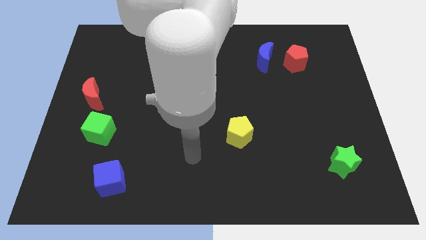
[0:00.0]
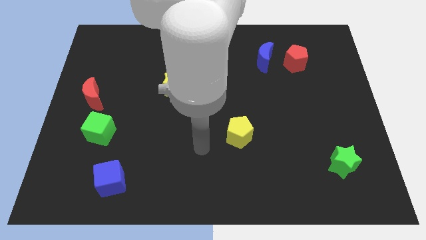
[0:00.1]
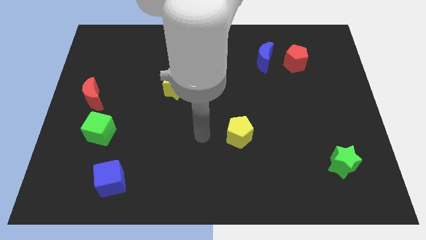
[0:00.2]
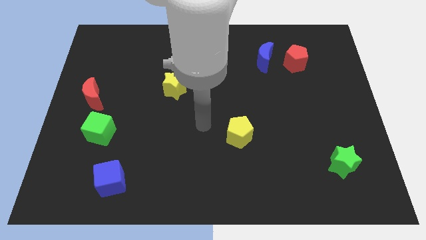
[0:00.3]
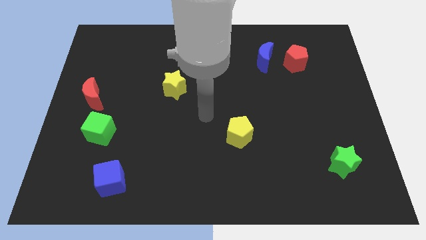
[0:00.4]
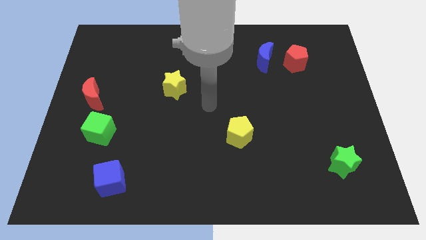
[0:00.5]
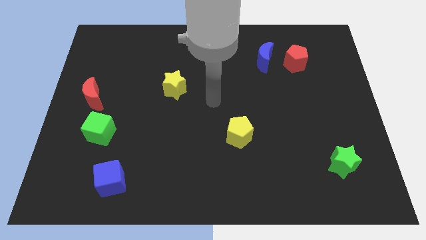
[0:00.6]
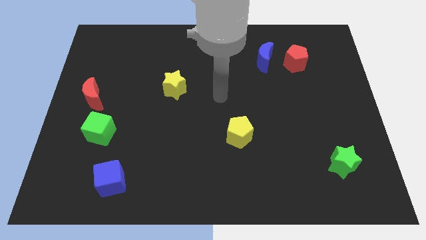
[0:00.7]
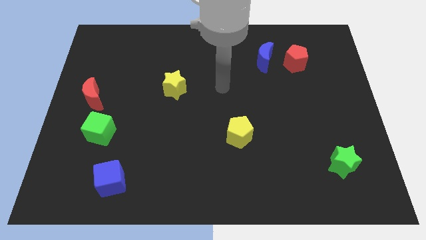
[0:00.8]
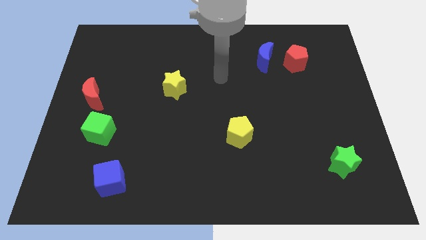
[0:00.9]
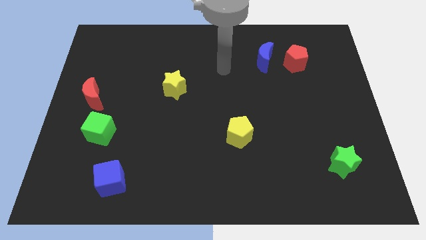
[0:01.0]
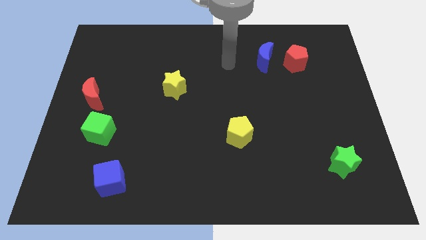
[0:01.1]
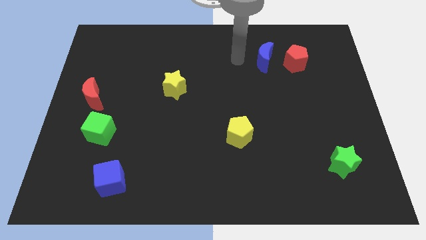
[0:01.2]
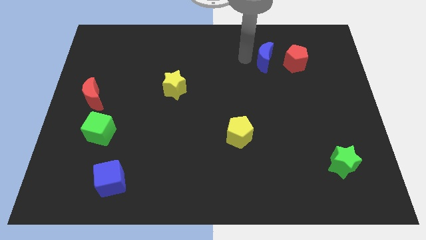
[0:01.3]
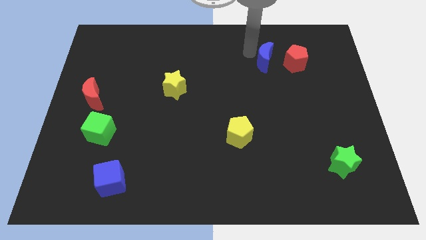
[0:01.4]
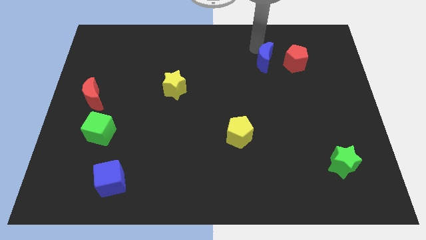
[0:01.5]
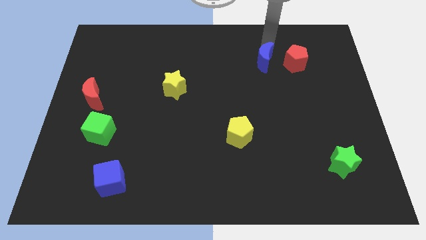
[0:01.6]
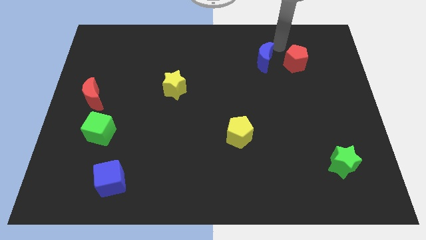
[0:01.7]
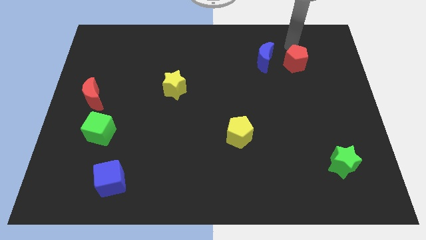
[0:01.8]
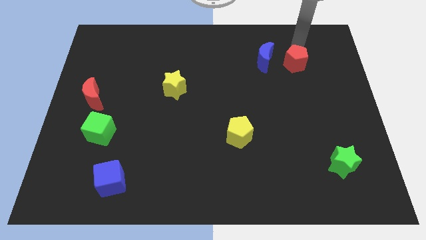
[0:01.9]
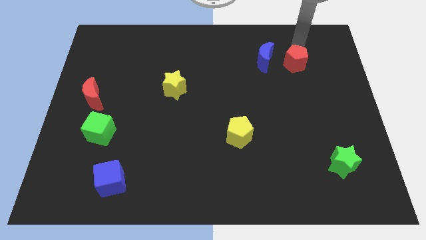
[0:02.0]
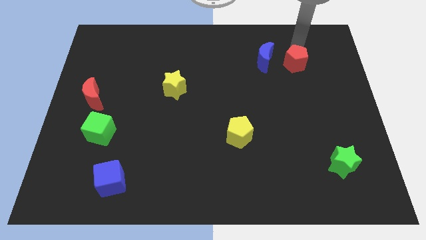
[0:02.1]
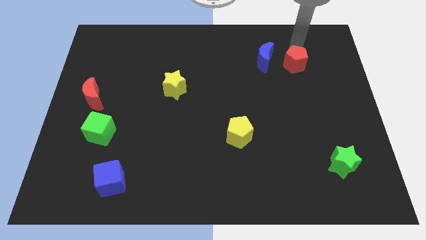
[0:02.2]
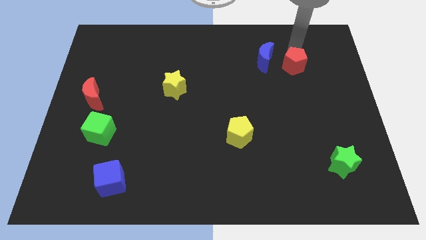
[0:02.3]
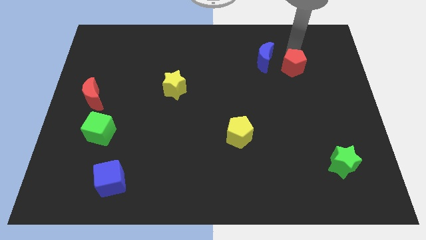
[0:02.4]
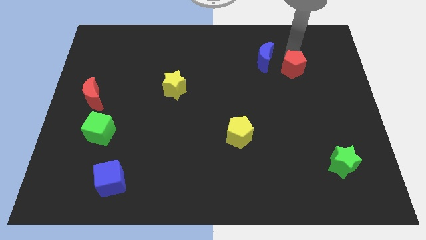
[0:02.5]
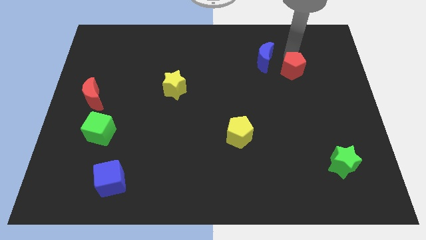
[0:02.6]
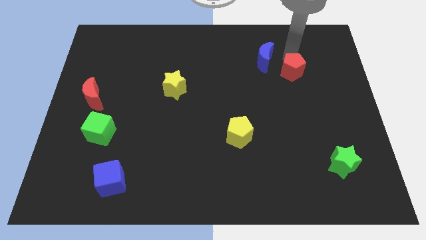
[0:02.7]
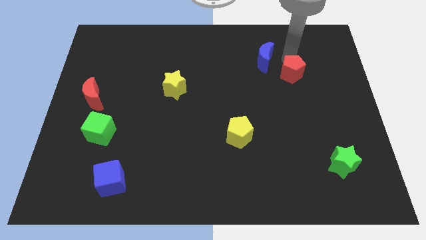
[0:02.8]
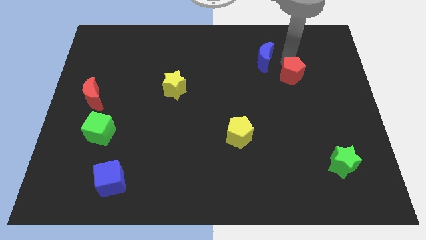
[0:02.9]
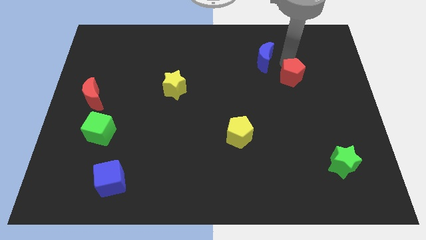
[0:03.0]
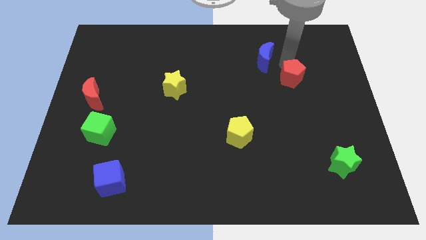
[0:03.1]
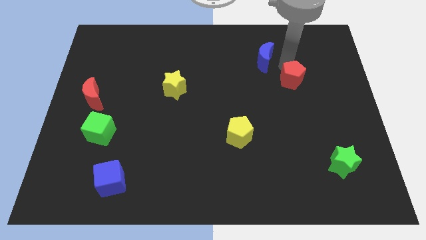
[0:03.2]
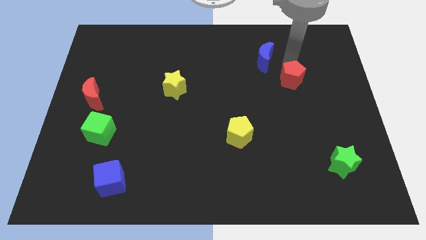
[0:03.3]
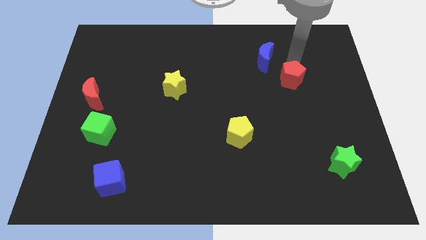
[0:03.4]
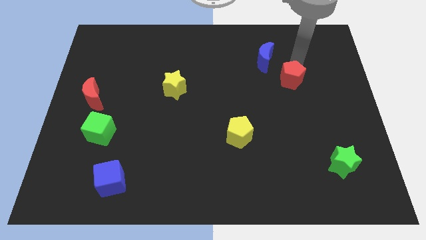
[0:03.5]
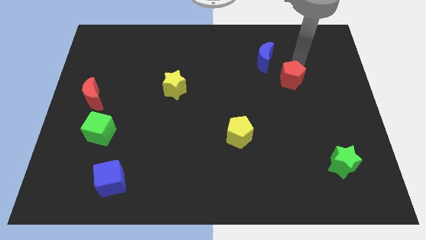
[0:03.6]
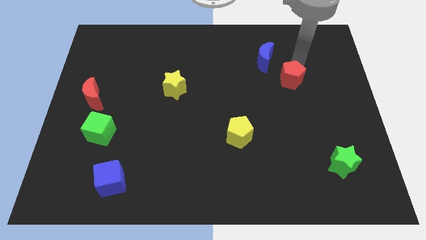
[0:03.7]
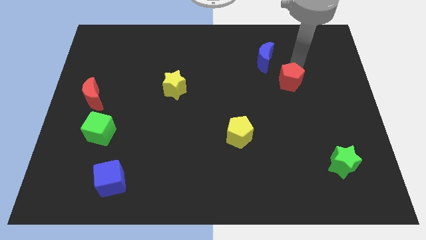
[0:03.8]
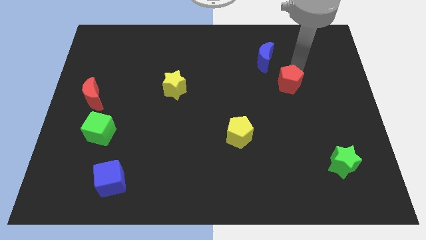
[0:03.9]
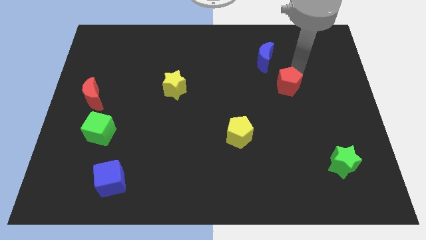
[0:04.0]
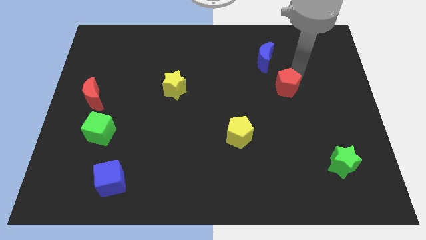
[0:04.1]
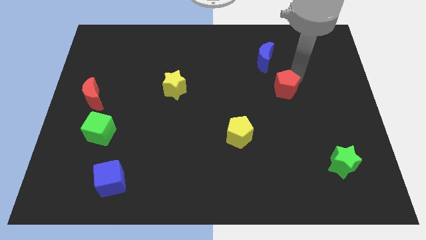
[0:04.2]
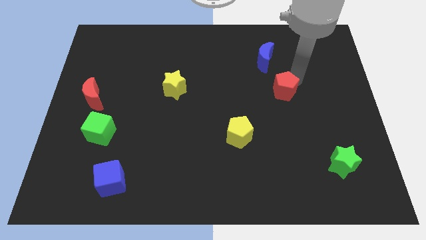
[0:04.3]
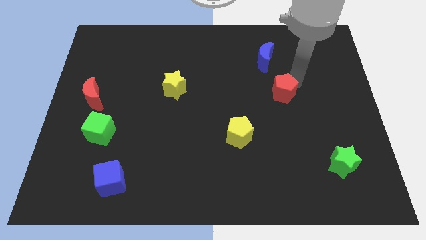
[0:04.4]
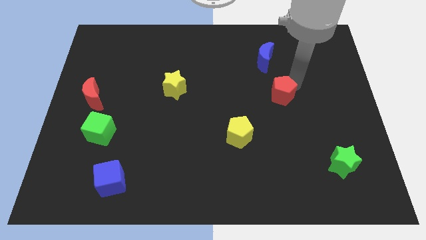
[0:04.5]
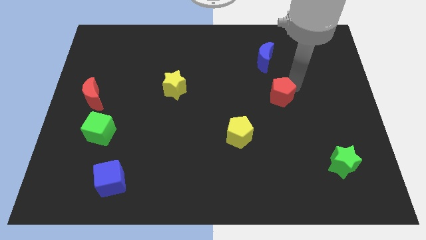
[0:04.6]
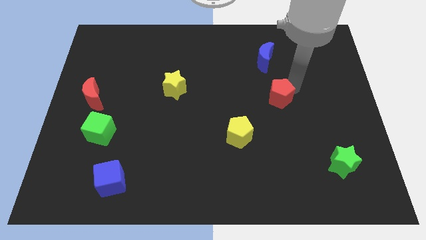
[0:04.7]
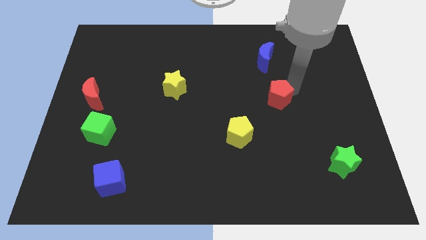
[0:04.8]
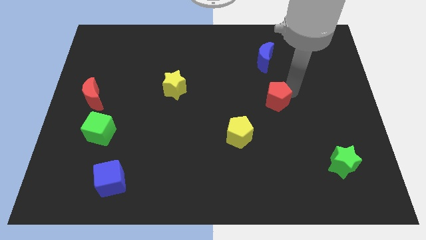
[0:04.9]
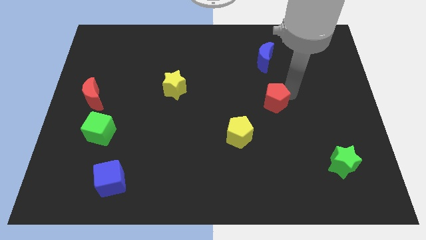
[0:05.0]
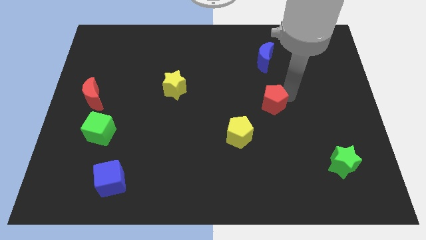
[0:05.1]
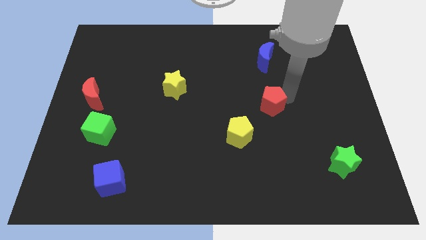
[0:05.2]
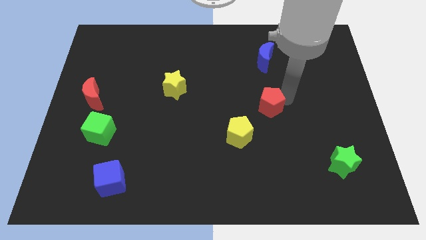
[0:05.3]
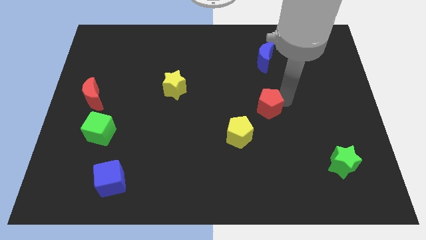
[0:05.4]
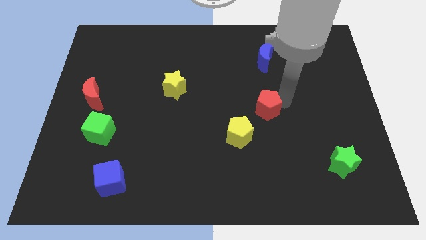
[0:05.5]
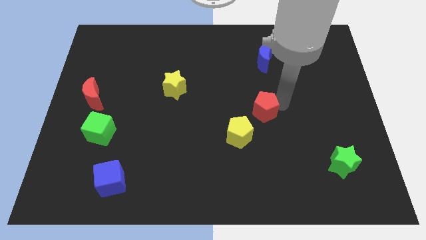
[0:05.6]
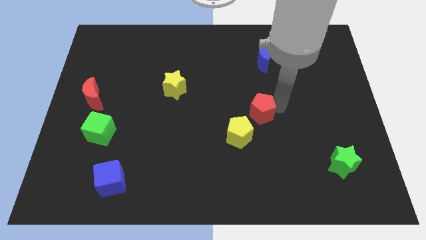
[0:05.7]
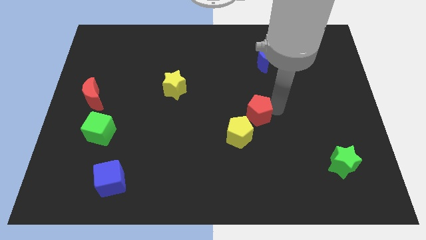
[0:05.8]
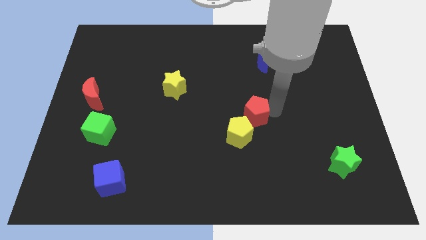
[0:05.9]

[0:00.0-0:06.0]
move the red pentagon down and left

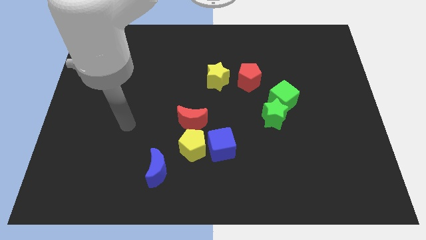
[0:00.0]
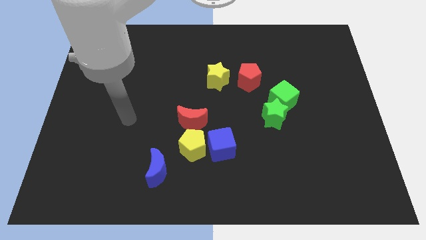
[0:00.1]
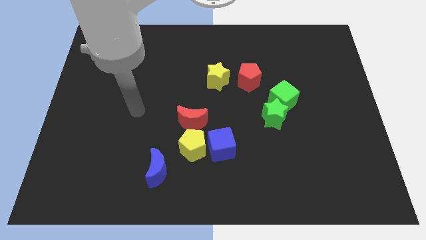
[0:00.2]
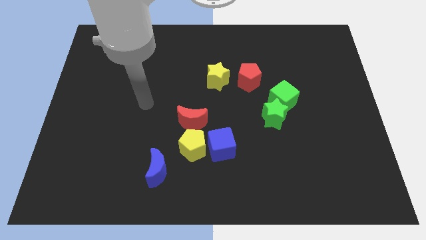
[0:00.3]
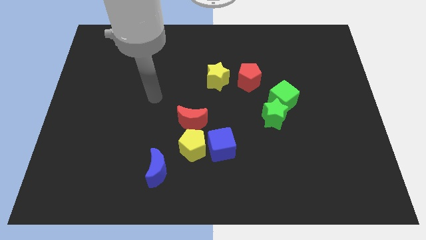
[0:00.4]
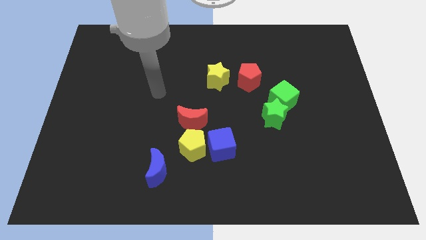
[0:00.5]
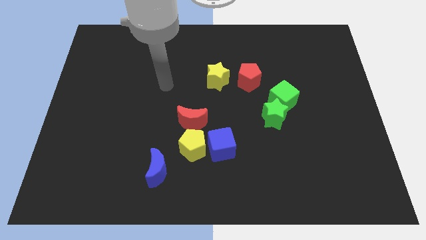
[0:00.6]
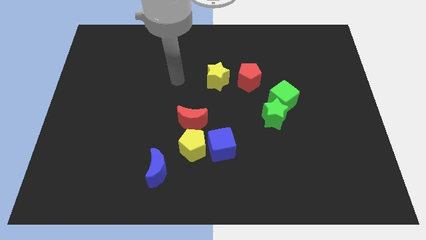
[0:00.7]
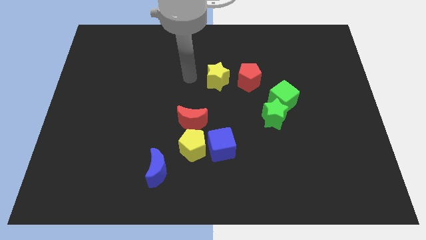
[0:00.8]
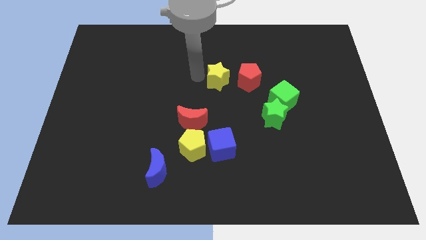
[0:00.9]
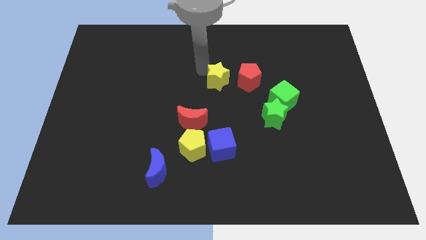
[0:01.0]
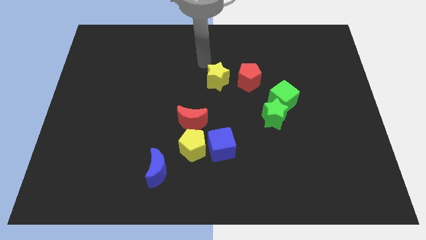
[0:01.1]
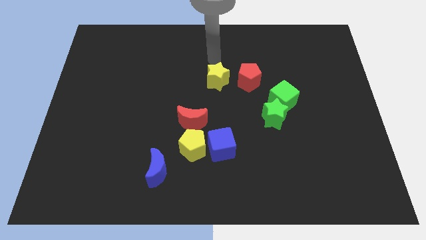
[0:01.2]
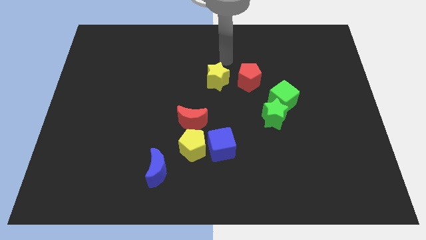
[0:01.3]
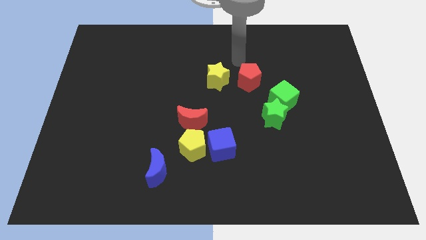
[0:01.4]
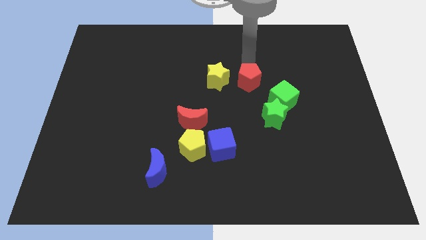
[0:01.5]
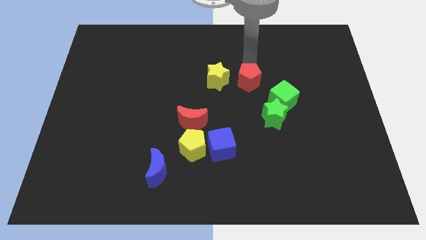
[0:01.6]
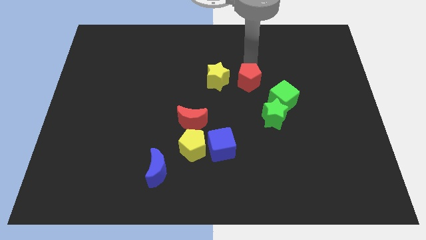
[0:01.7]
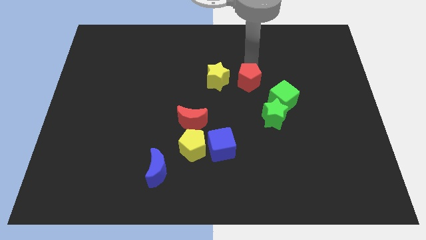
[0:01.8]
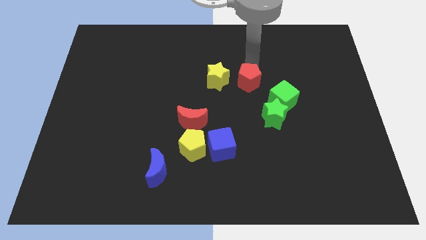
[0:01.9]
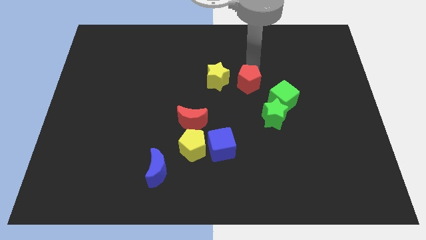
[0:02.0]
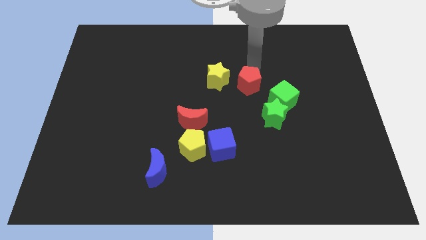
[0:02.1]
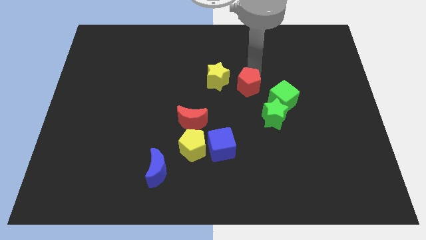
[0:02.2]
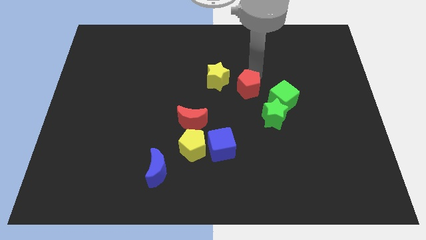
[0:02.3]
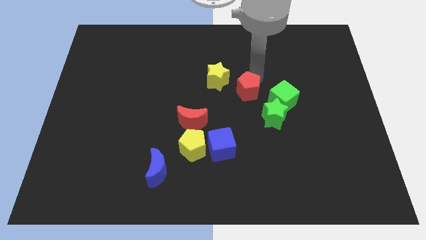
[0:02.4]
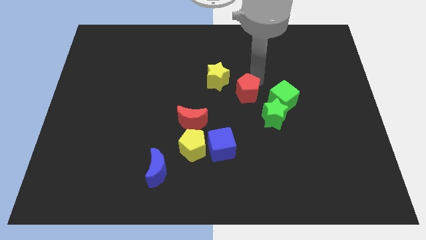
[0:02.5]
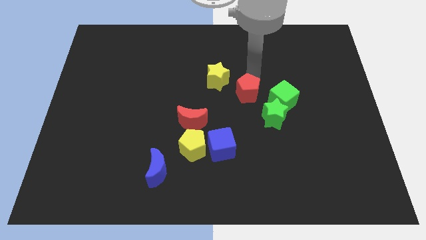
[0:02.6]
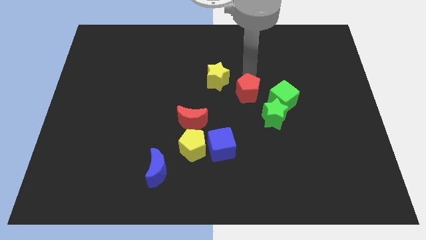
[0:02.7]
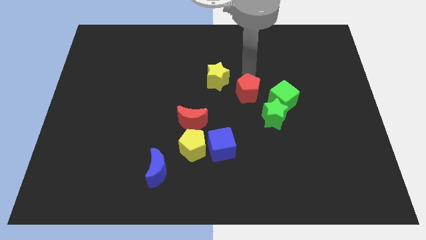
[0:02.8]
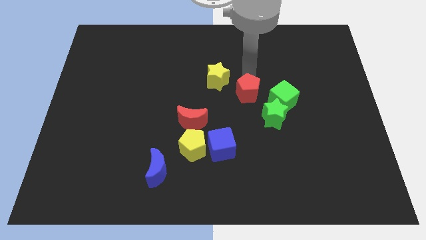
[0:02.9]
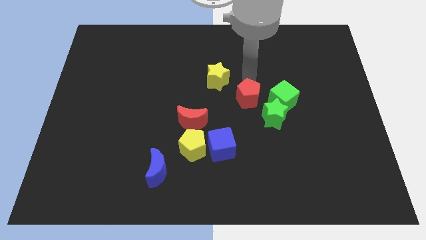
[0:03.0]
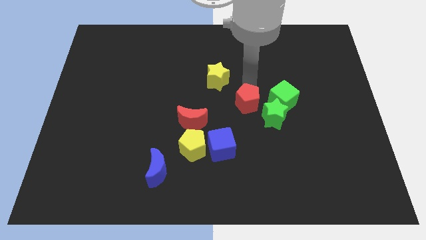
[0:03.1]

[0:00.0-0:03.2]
move the red pentagon down somewhat
